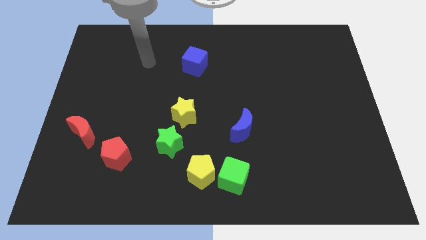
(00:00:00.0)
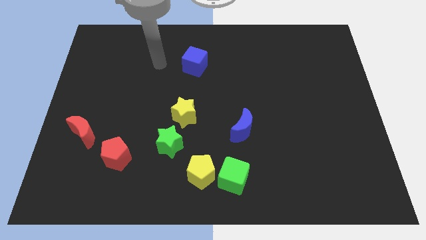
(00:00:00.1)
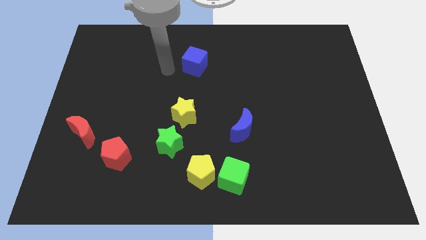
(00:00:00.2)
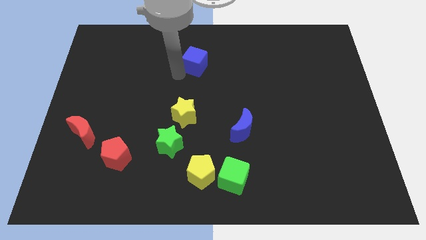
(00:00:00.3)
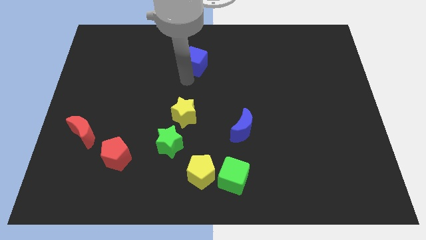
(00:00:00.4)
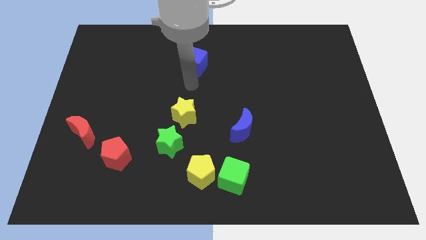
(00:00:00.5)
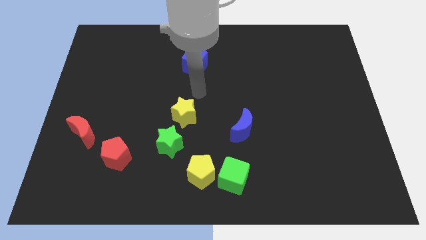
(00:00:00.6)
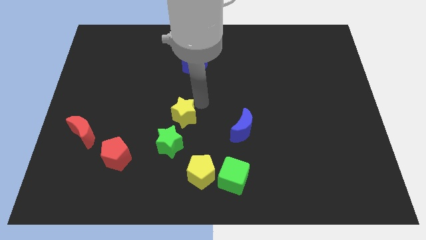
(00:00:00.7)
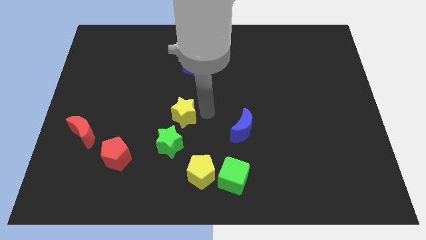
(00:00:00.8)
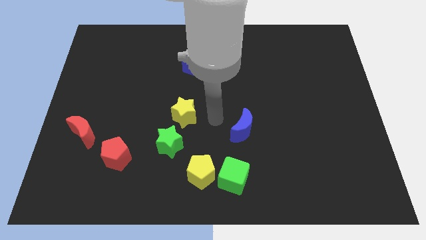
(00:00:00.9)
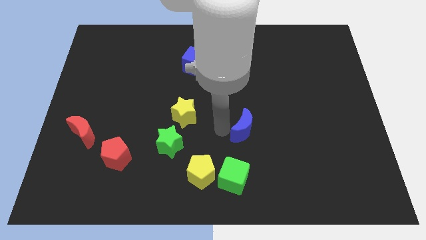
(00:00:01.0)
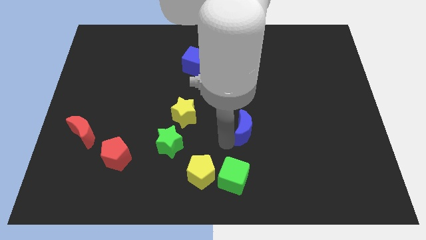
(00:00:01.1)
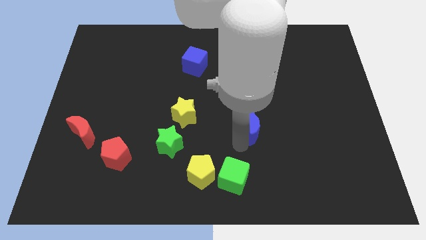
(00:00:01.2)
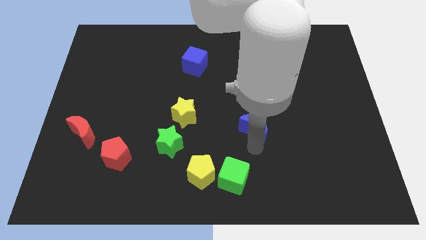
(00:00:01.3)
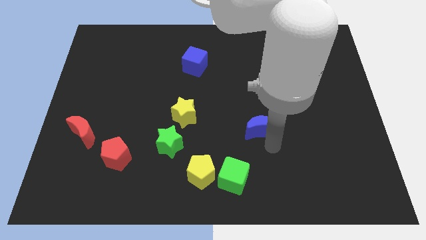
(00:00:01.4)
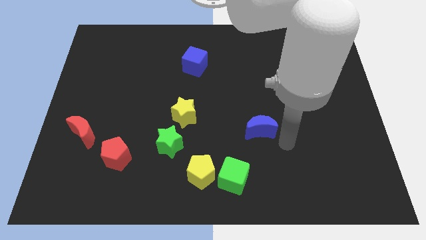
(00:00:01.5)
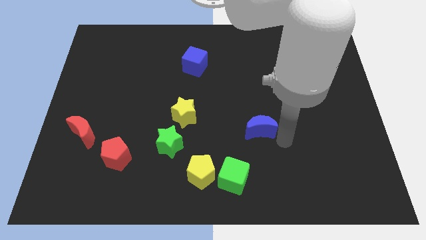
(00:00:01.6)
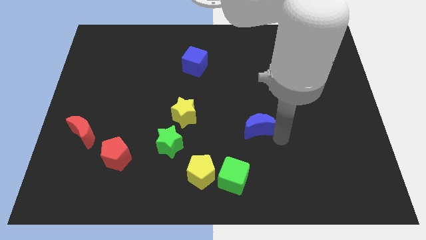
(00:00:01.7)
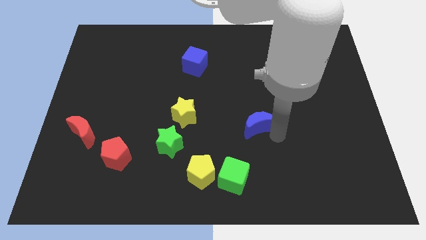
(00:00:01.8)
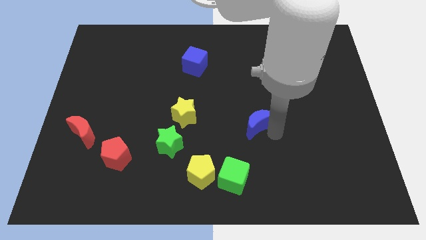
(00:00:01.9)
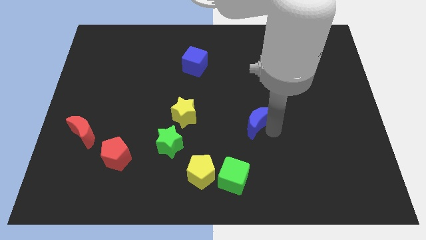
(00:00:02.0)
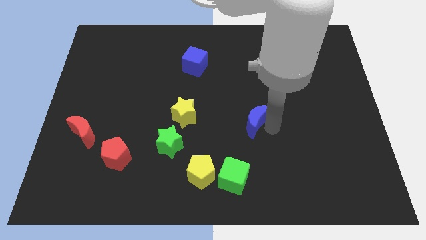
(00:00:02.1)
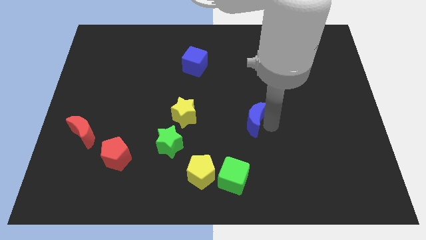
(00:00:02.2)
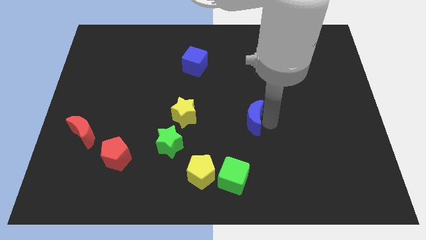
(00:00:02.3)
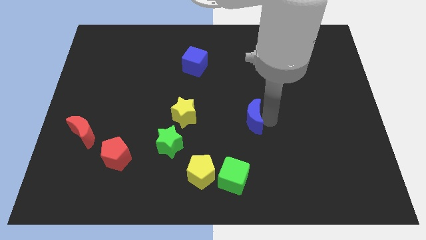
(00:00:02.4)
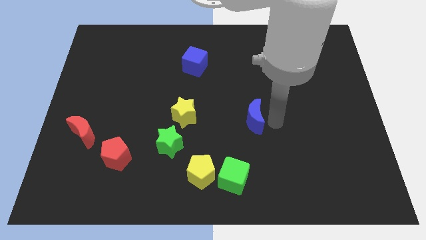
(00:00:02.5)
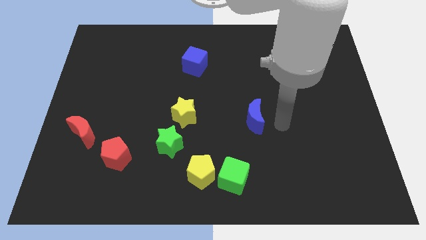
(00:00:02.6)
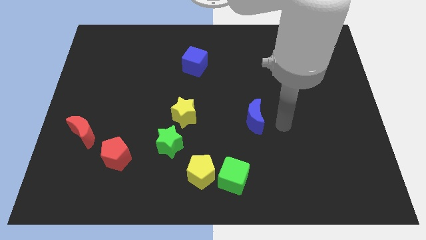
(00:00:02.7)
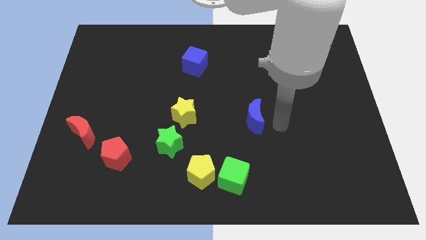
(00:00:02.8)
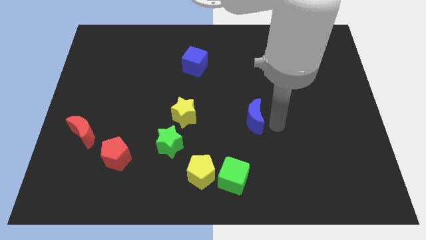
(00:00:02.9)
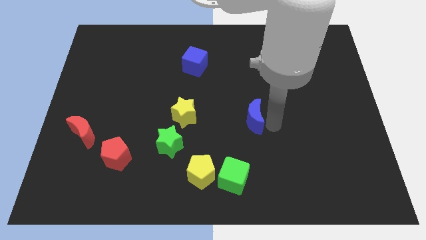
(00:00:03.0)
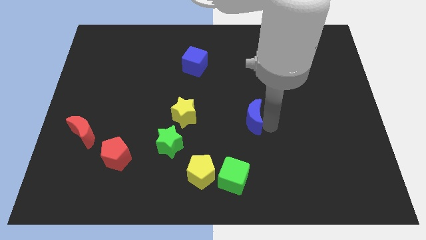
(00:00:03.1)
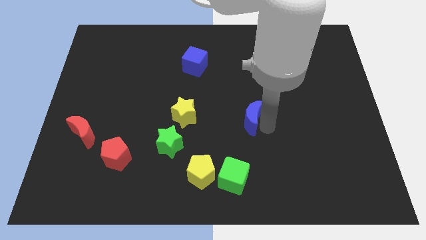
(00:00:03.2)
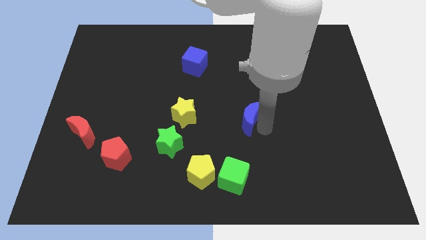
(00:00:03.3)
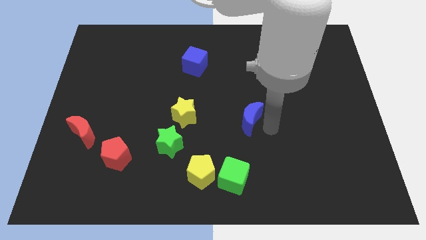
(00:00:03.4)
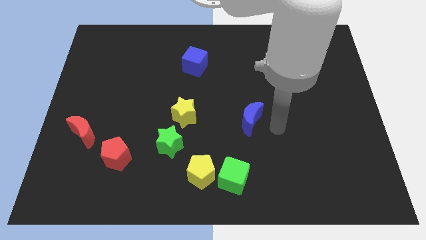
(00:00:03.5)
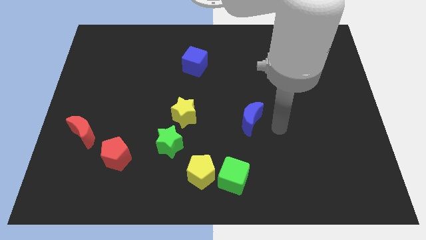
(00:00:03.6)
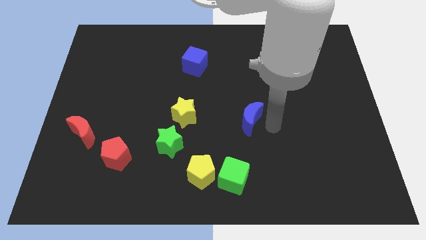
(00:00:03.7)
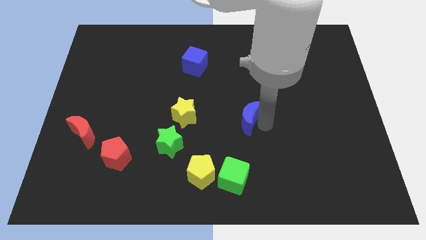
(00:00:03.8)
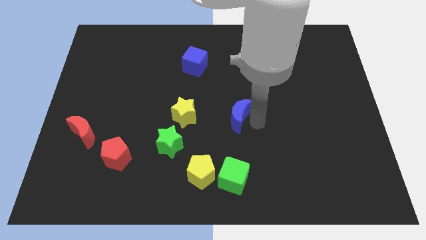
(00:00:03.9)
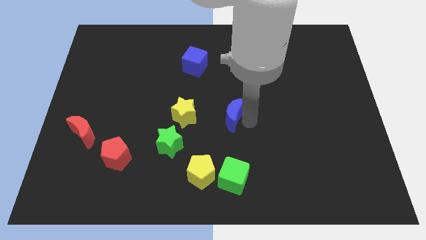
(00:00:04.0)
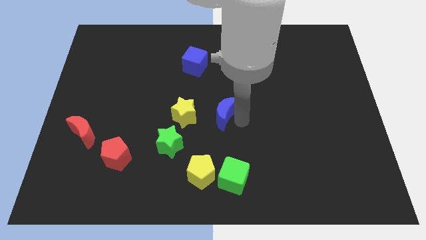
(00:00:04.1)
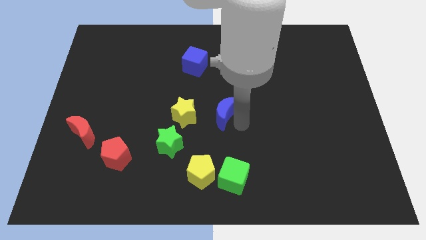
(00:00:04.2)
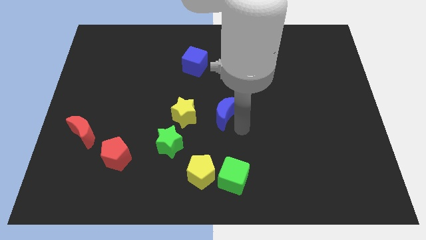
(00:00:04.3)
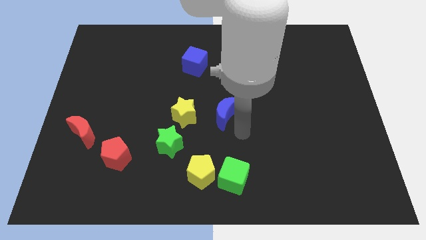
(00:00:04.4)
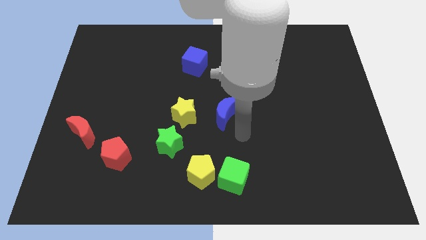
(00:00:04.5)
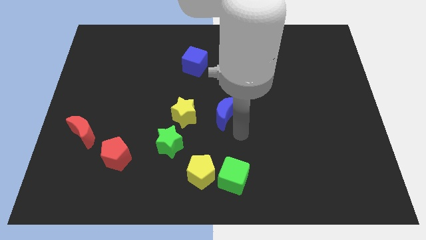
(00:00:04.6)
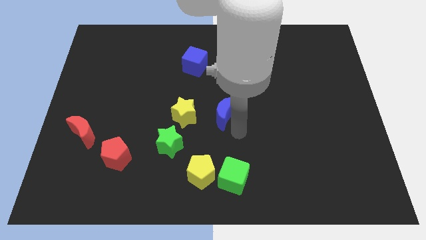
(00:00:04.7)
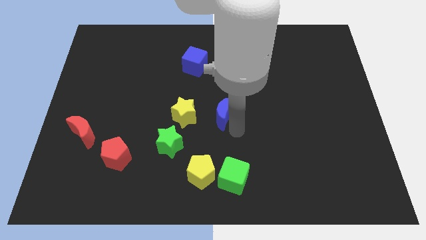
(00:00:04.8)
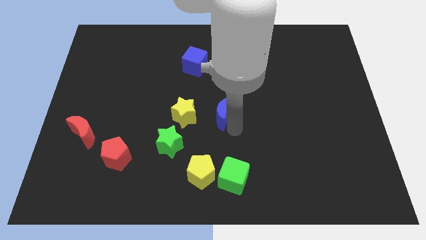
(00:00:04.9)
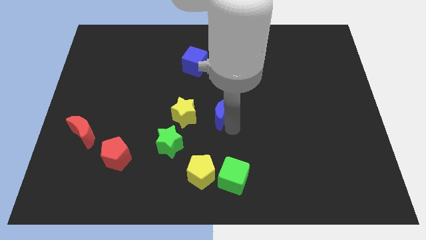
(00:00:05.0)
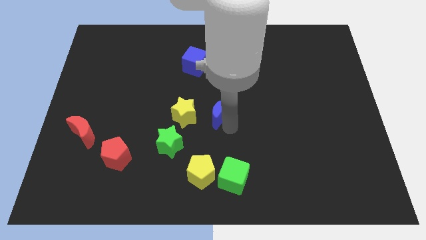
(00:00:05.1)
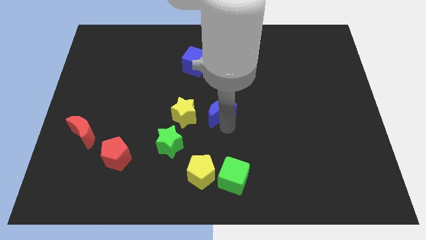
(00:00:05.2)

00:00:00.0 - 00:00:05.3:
push the blue moon diagonally upwards and left a bit

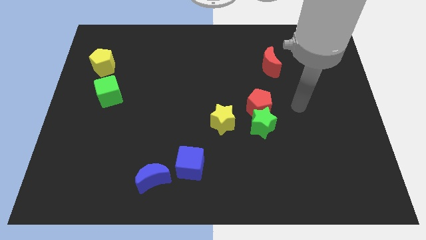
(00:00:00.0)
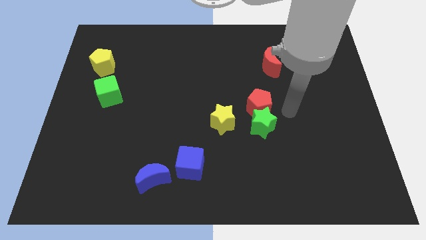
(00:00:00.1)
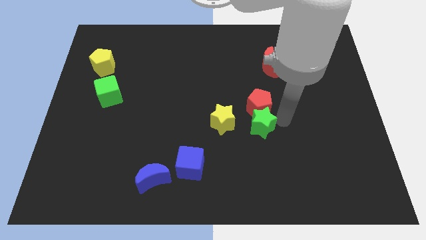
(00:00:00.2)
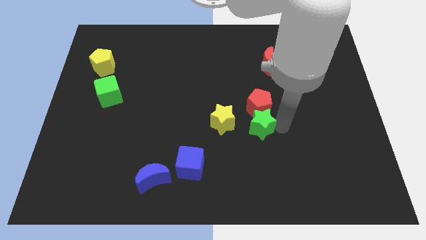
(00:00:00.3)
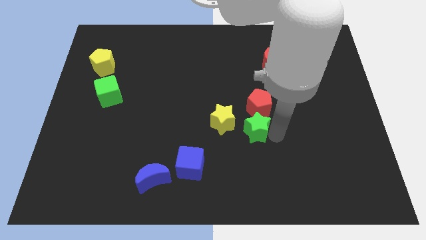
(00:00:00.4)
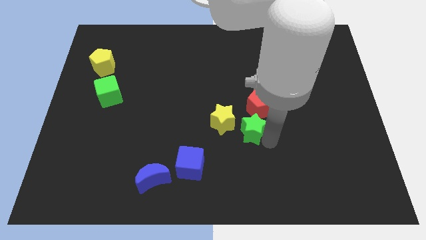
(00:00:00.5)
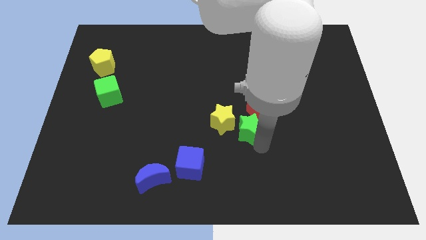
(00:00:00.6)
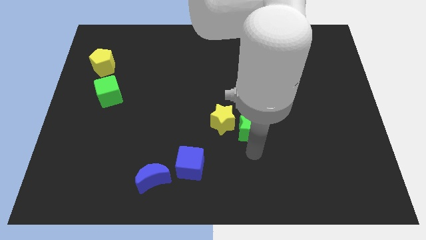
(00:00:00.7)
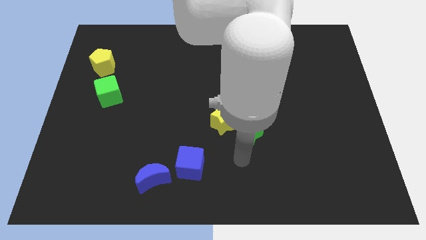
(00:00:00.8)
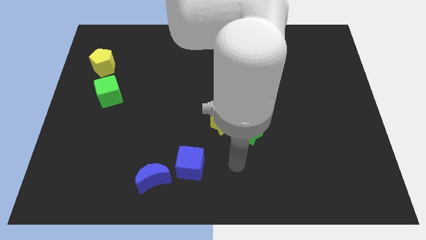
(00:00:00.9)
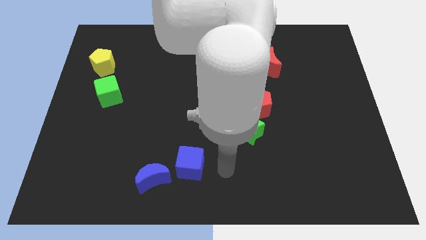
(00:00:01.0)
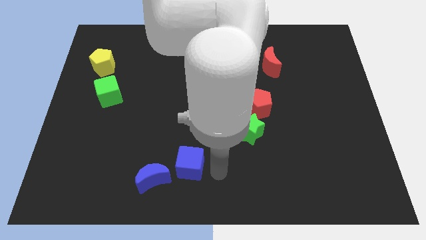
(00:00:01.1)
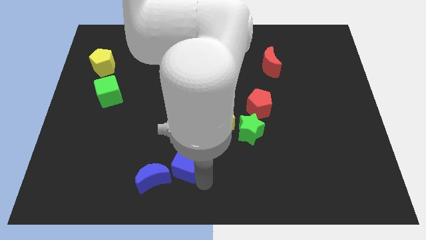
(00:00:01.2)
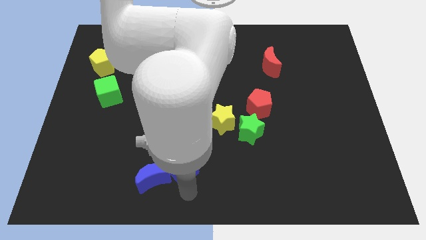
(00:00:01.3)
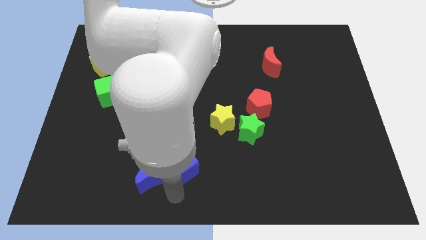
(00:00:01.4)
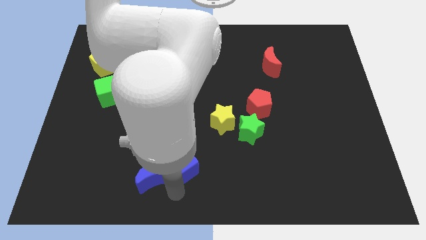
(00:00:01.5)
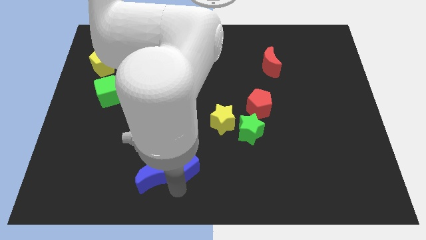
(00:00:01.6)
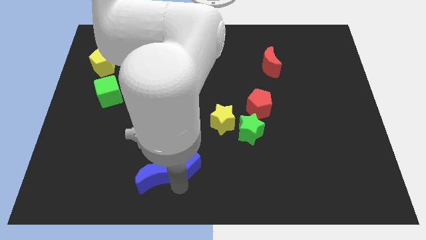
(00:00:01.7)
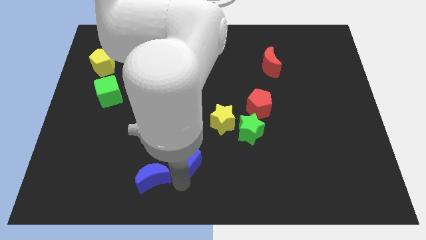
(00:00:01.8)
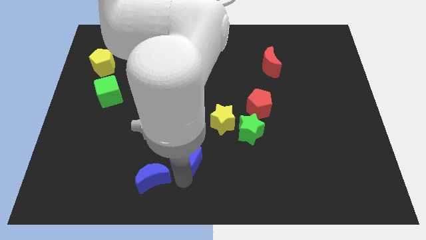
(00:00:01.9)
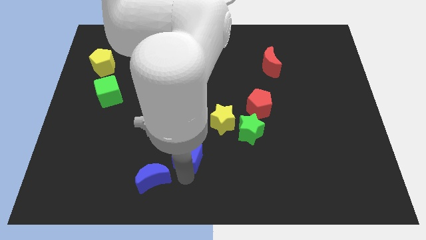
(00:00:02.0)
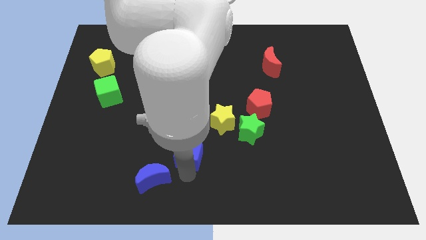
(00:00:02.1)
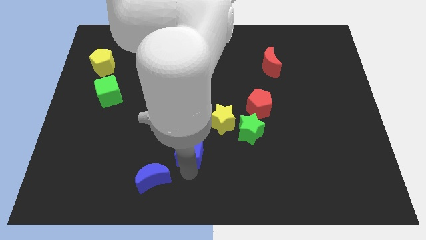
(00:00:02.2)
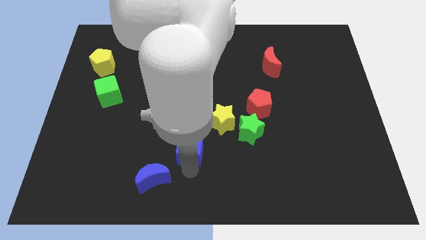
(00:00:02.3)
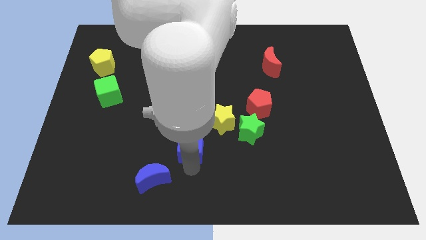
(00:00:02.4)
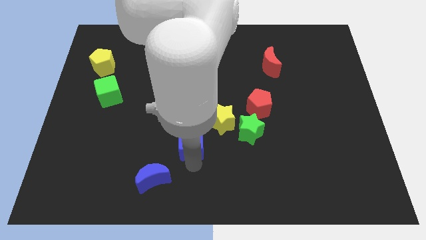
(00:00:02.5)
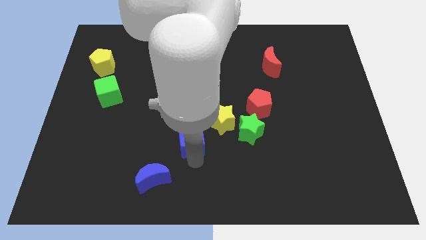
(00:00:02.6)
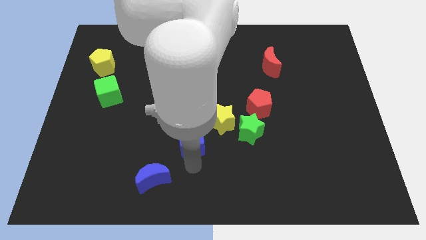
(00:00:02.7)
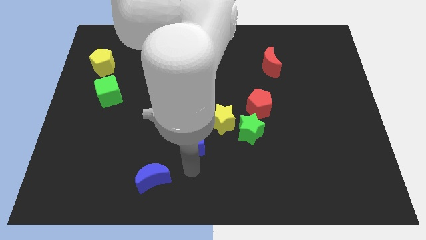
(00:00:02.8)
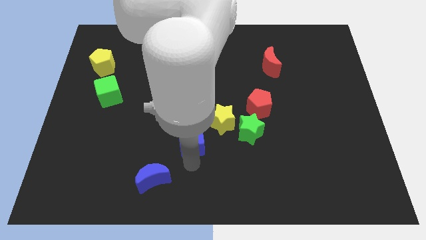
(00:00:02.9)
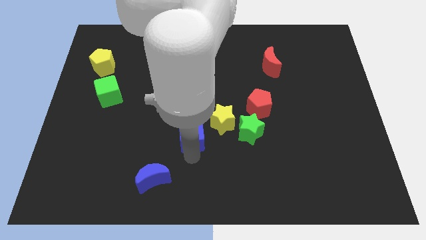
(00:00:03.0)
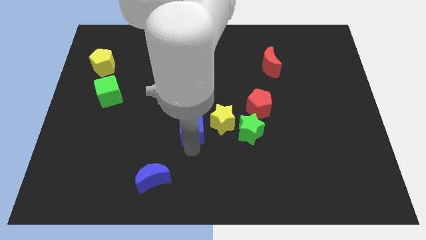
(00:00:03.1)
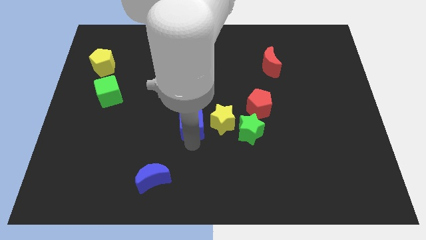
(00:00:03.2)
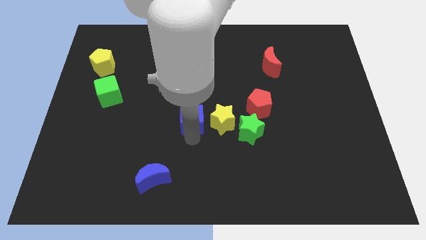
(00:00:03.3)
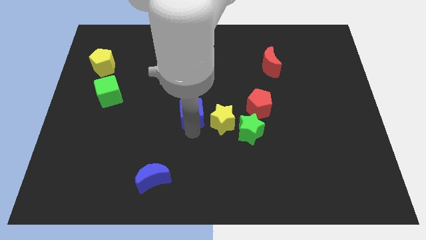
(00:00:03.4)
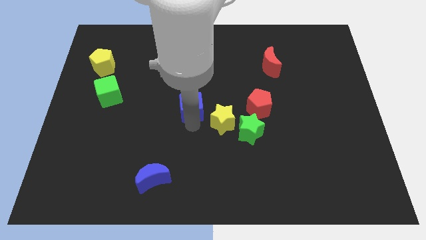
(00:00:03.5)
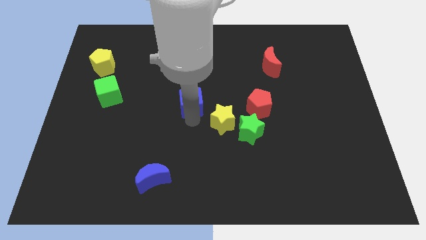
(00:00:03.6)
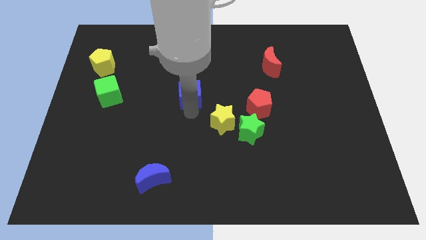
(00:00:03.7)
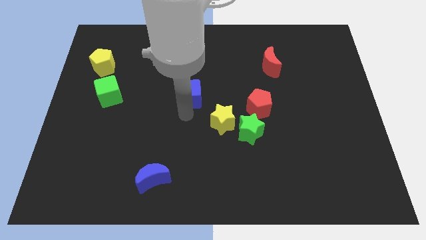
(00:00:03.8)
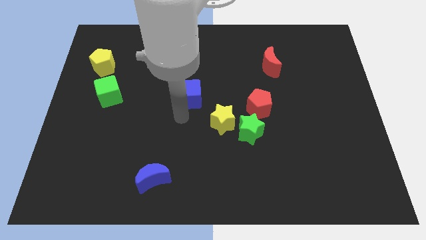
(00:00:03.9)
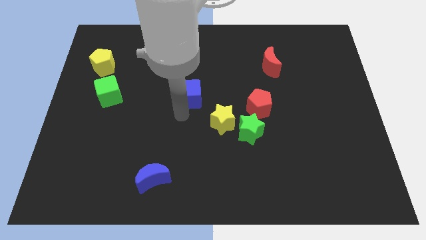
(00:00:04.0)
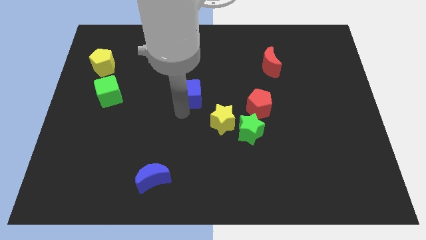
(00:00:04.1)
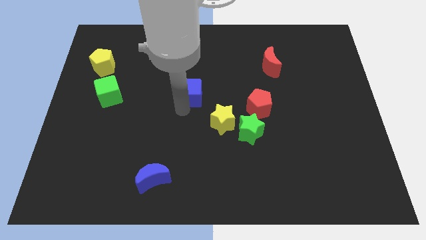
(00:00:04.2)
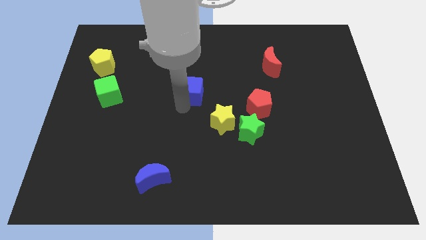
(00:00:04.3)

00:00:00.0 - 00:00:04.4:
move the blue cube up
